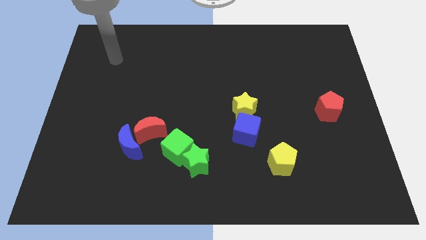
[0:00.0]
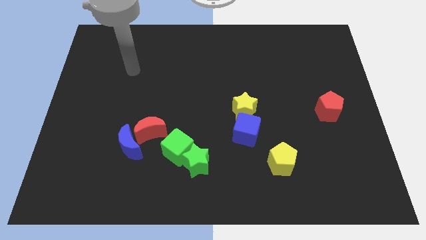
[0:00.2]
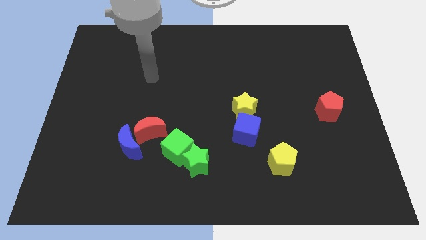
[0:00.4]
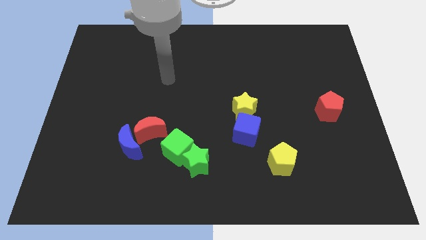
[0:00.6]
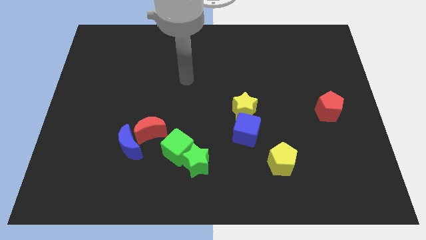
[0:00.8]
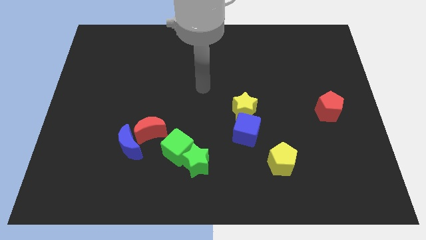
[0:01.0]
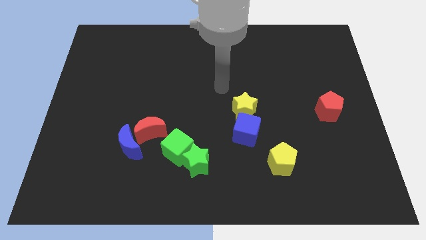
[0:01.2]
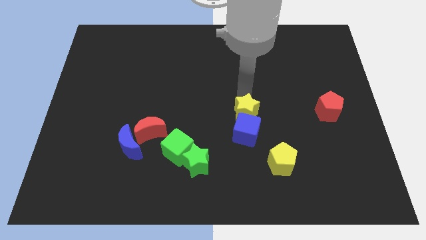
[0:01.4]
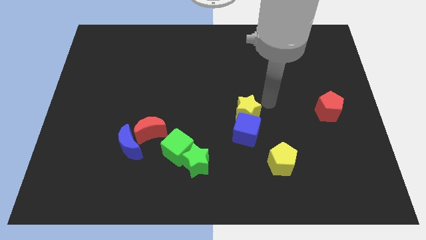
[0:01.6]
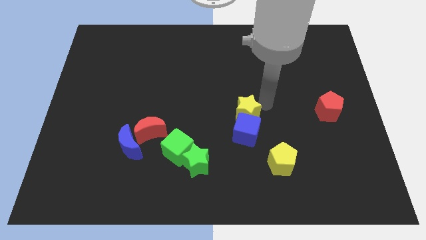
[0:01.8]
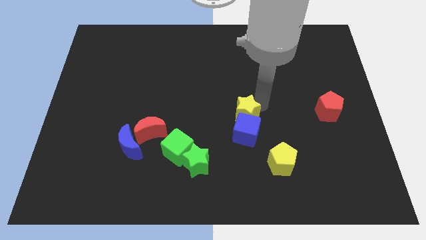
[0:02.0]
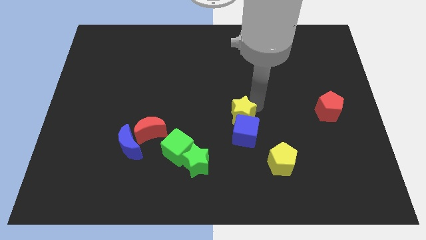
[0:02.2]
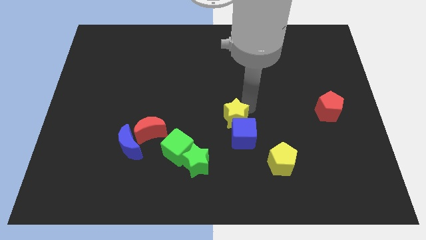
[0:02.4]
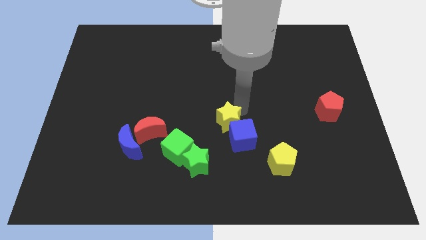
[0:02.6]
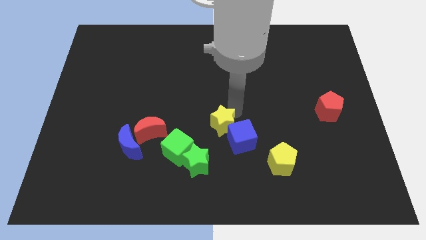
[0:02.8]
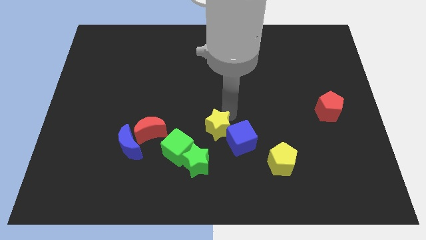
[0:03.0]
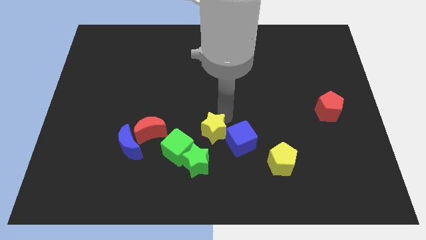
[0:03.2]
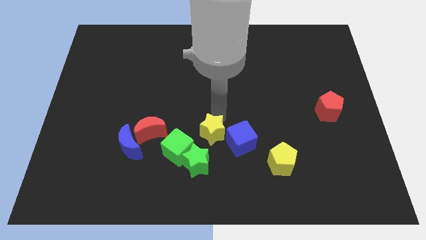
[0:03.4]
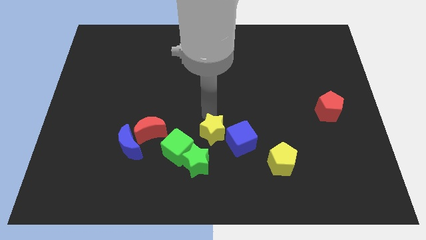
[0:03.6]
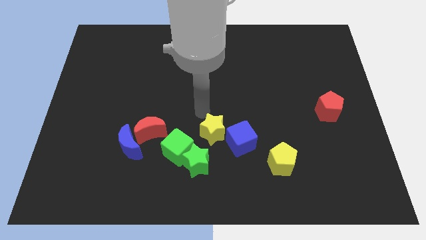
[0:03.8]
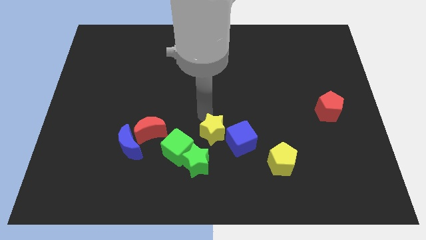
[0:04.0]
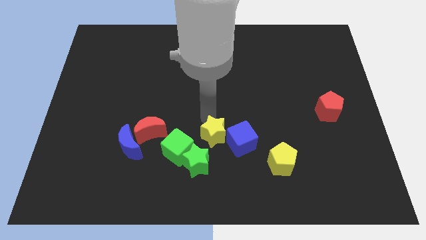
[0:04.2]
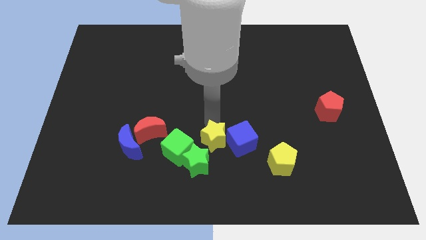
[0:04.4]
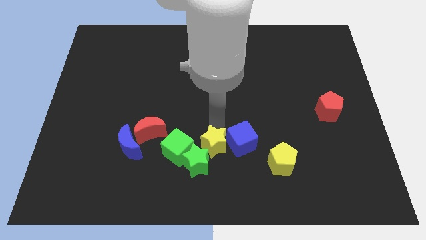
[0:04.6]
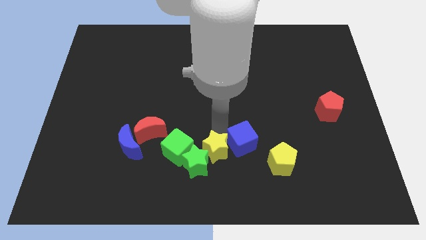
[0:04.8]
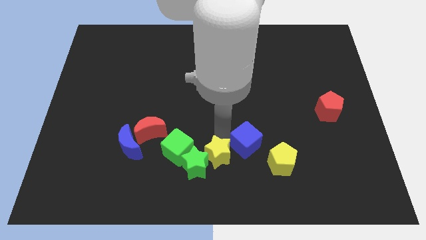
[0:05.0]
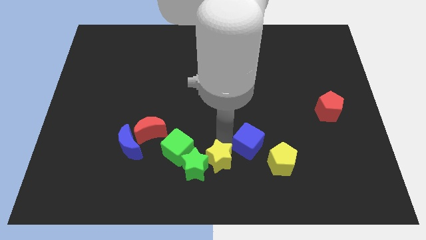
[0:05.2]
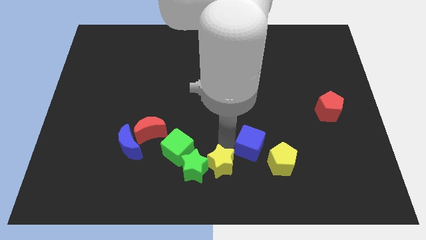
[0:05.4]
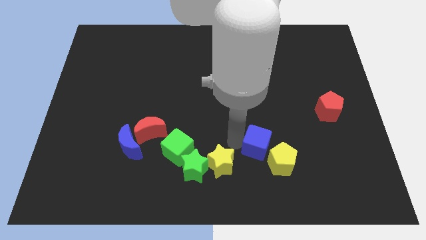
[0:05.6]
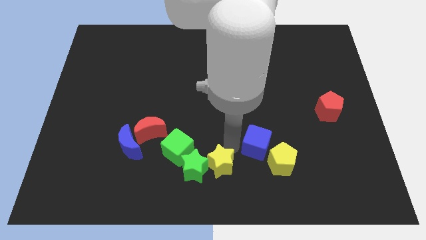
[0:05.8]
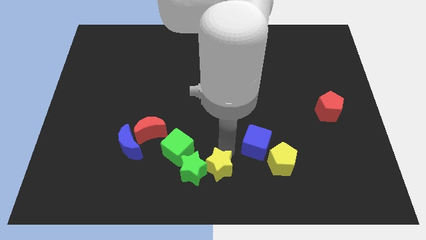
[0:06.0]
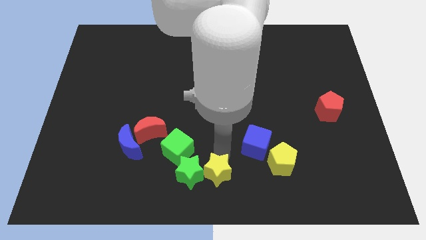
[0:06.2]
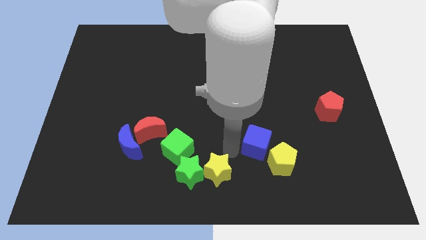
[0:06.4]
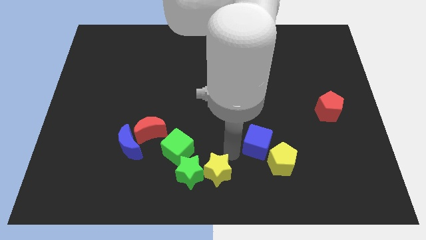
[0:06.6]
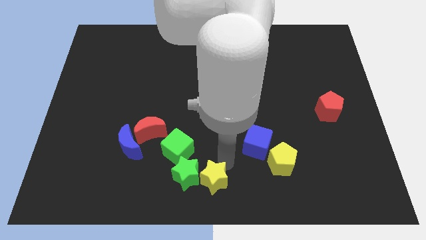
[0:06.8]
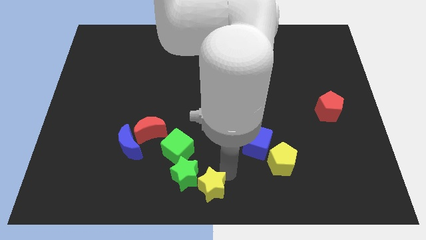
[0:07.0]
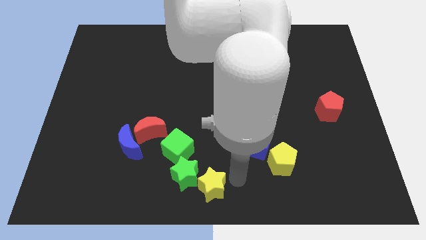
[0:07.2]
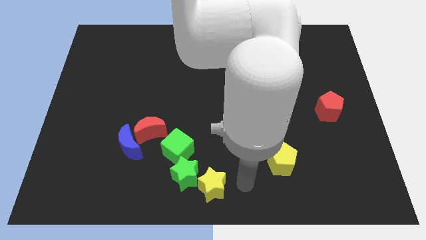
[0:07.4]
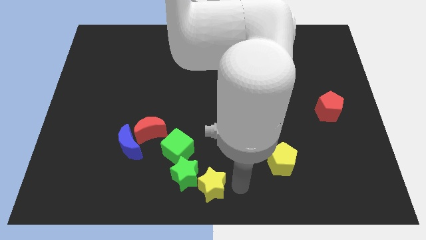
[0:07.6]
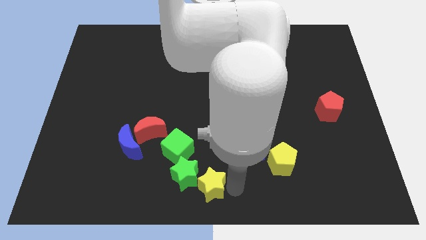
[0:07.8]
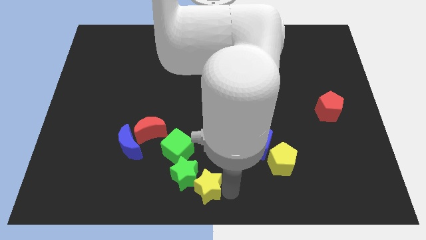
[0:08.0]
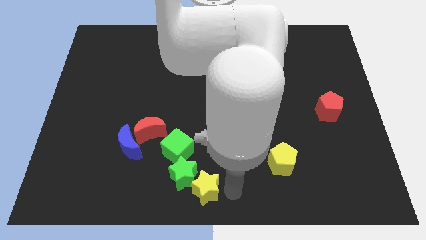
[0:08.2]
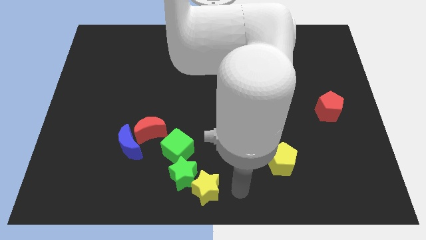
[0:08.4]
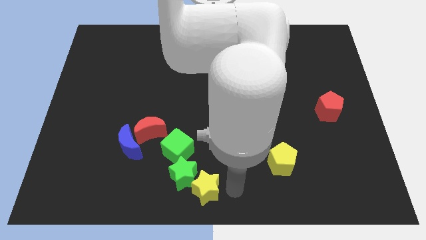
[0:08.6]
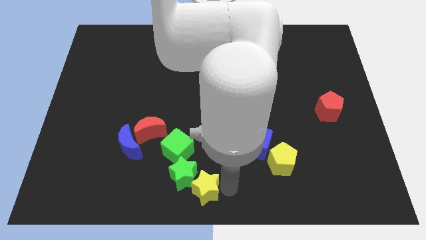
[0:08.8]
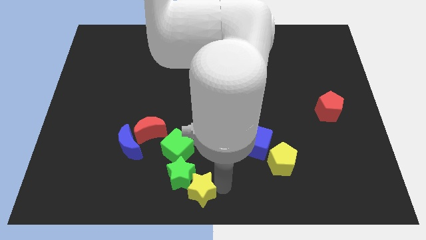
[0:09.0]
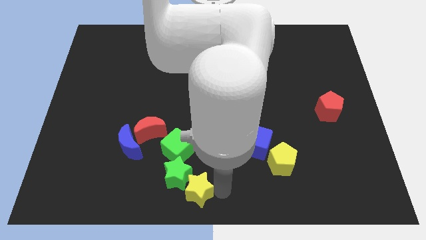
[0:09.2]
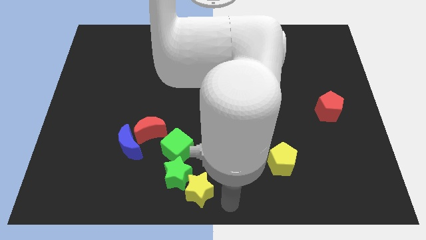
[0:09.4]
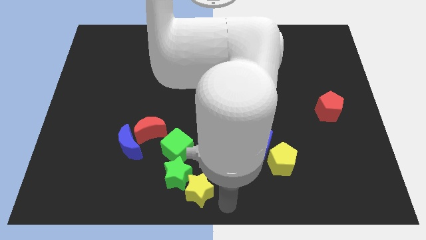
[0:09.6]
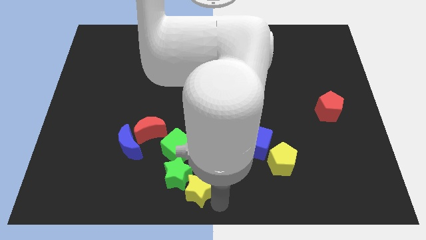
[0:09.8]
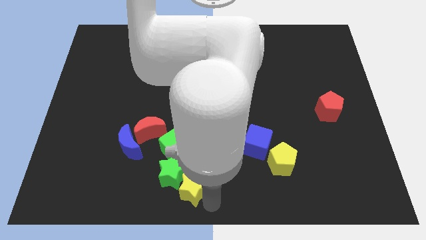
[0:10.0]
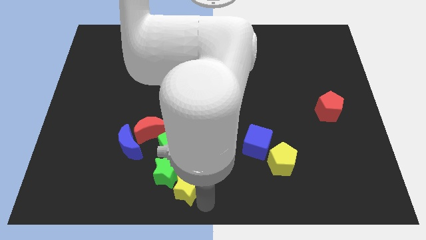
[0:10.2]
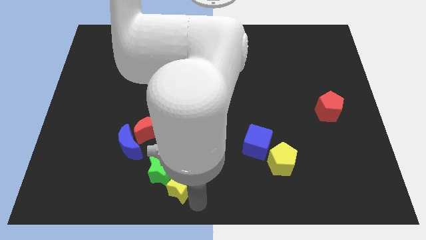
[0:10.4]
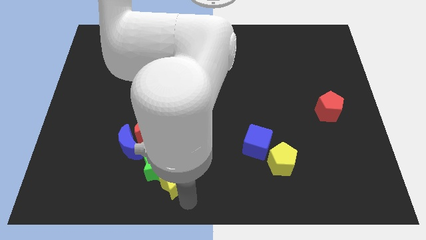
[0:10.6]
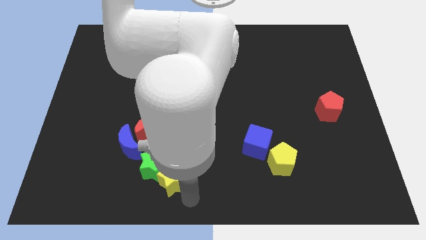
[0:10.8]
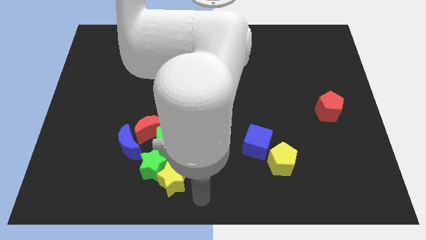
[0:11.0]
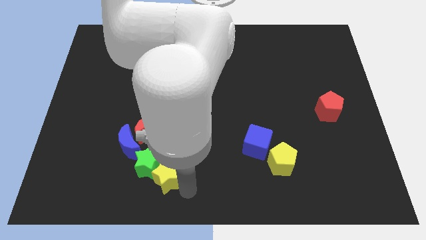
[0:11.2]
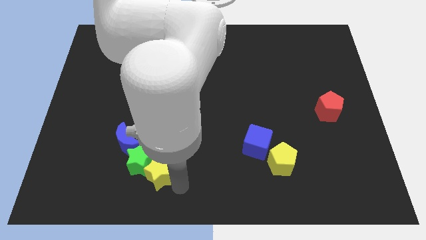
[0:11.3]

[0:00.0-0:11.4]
slide the yellow star diagonally down and to the left of the green cube

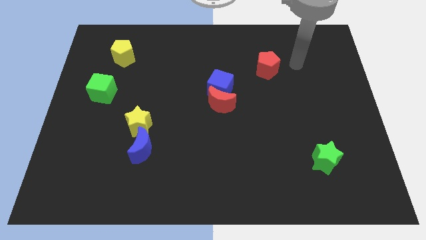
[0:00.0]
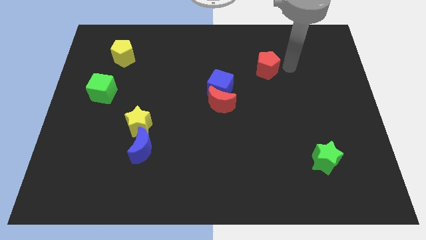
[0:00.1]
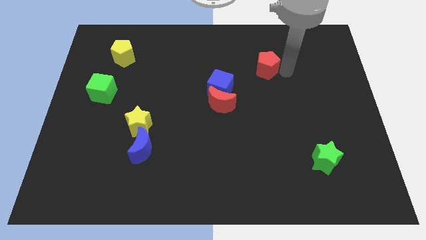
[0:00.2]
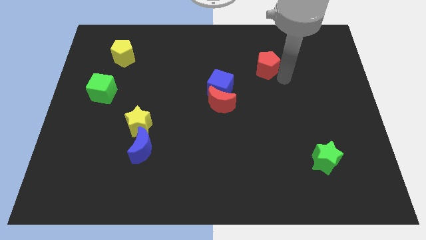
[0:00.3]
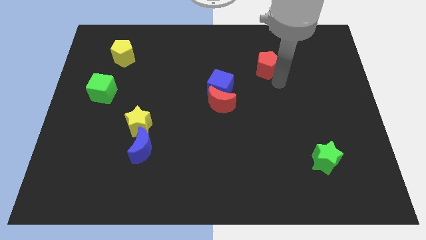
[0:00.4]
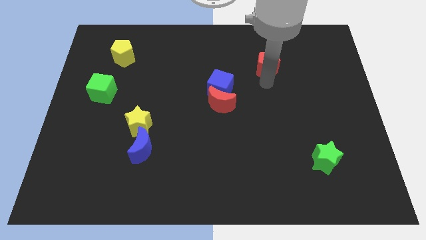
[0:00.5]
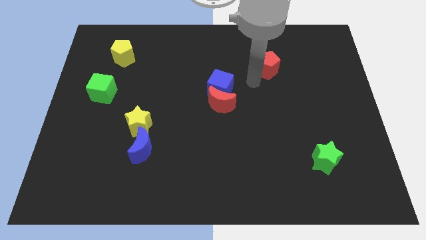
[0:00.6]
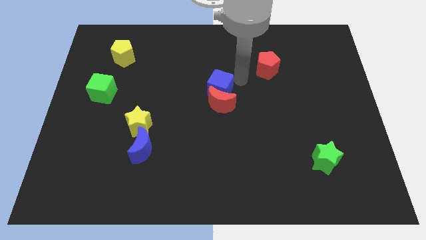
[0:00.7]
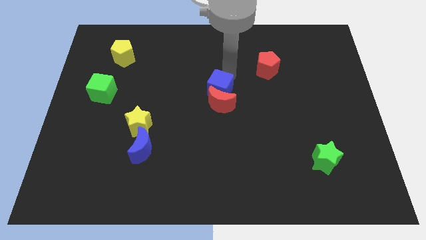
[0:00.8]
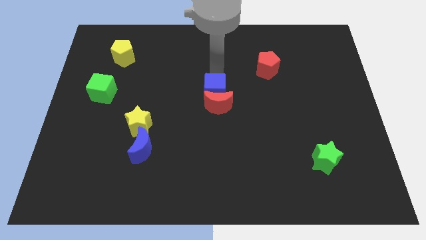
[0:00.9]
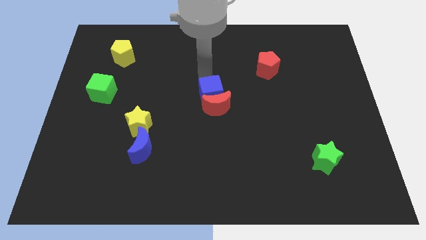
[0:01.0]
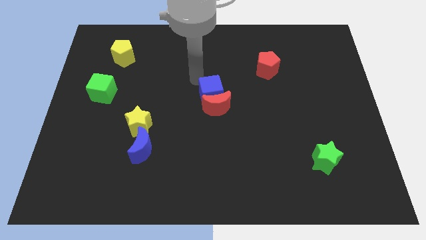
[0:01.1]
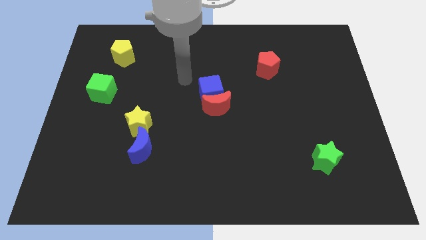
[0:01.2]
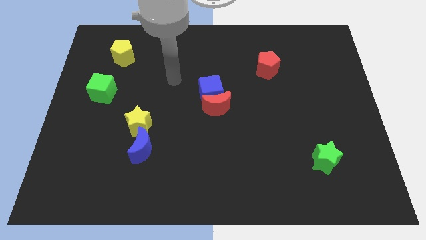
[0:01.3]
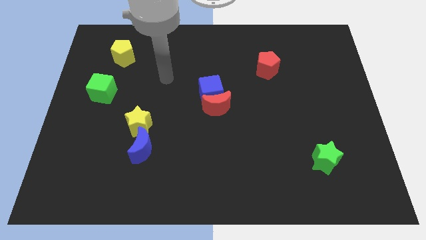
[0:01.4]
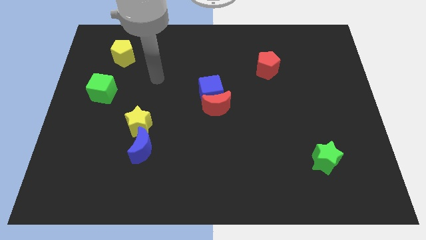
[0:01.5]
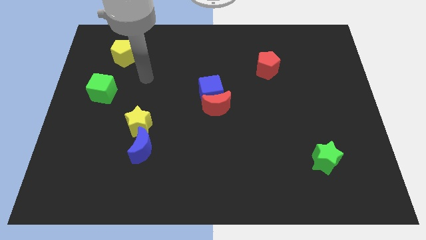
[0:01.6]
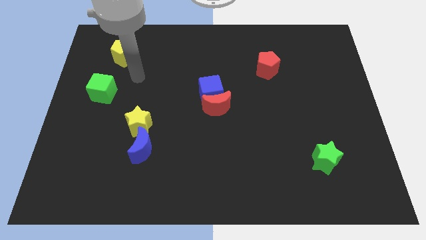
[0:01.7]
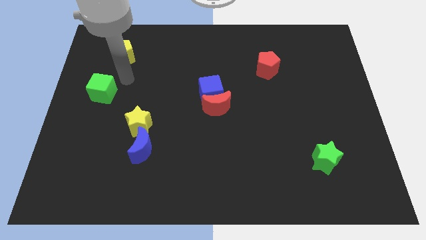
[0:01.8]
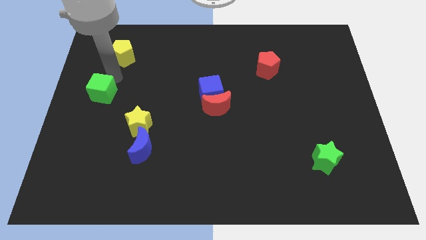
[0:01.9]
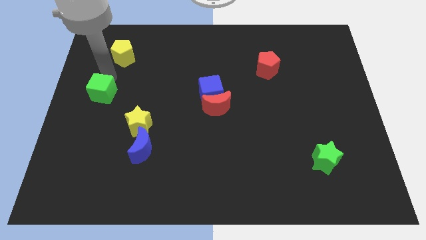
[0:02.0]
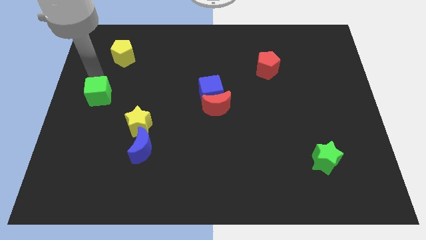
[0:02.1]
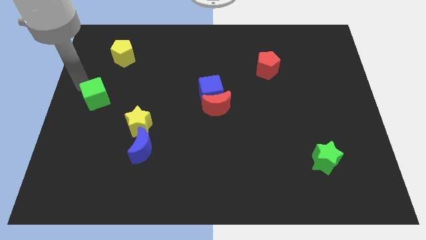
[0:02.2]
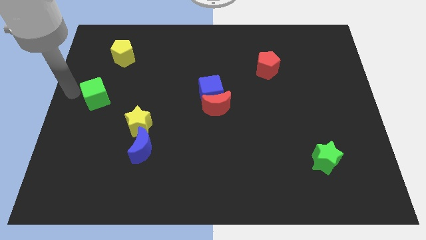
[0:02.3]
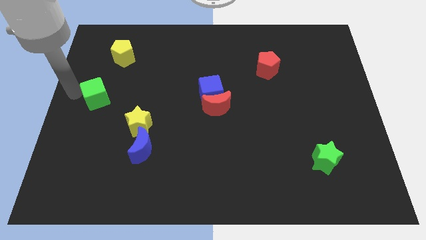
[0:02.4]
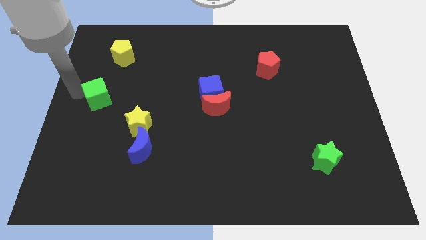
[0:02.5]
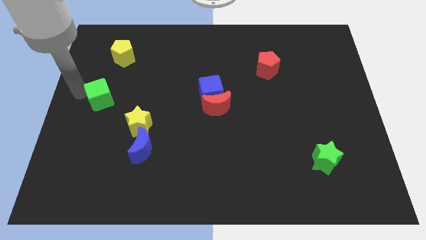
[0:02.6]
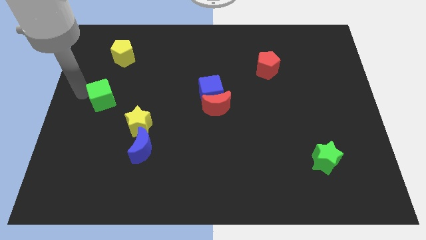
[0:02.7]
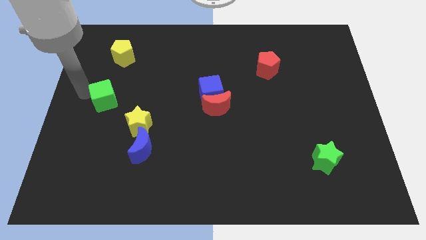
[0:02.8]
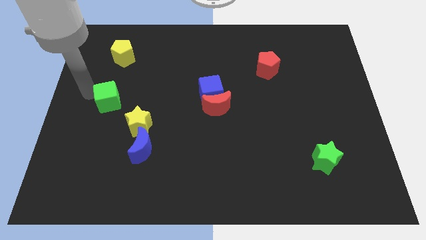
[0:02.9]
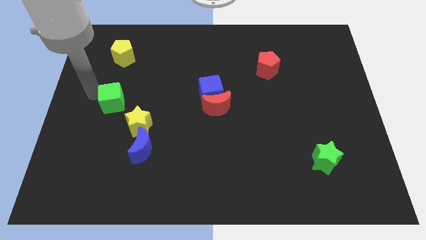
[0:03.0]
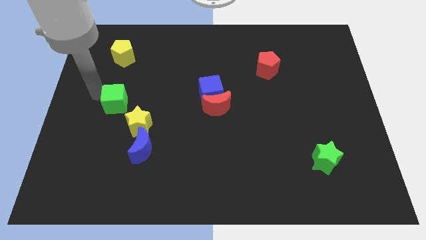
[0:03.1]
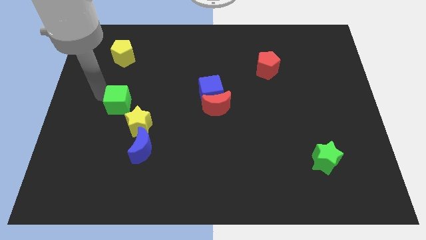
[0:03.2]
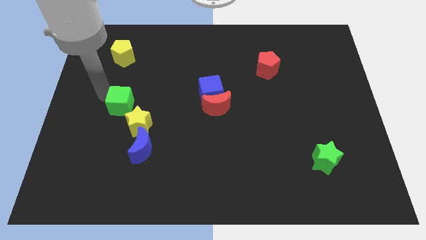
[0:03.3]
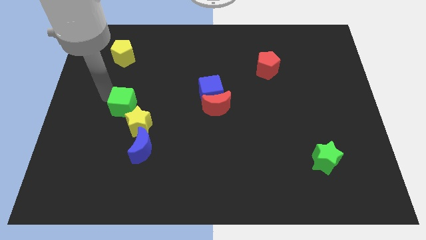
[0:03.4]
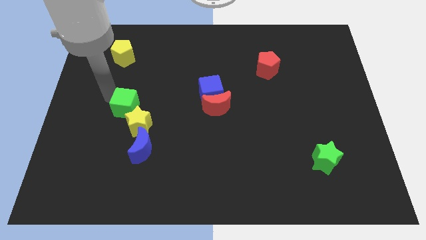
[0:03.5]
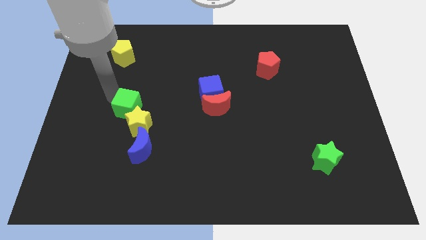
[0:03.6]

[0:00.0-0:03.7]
move the green cube above the blue moon
